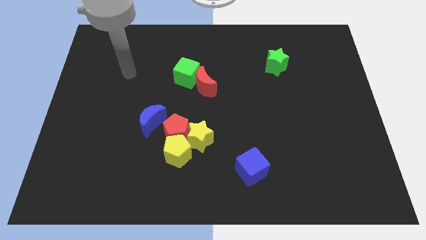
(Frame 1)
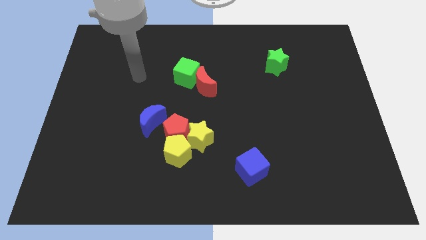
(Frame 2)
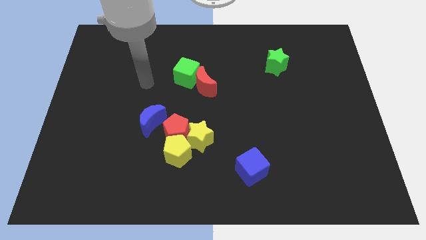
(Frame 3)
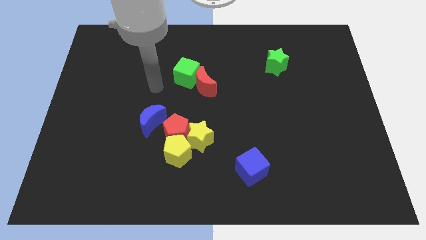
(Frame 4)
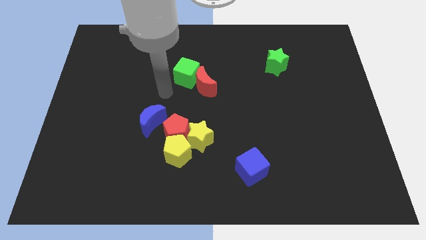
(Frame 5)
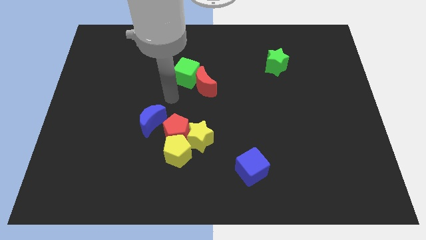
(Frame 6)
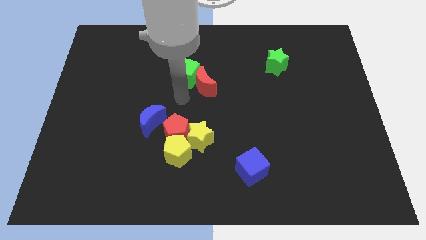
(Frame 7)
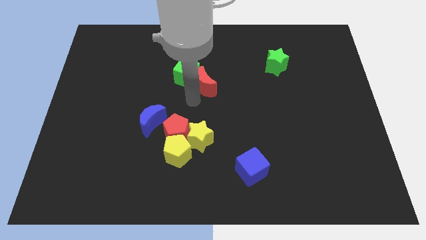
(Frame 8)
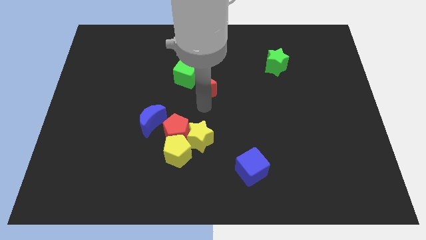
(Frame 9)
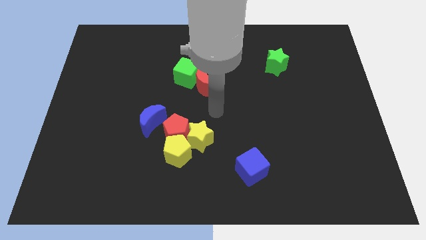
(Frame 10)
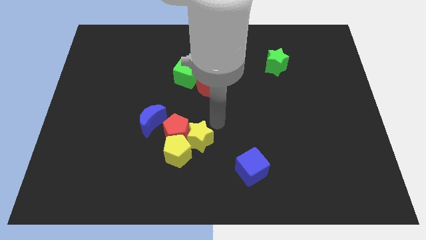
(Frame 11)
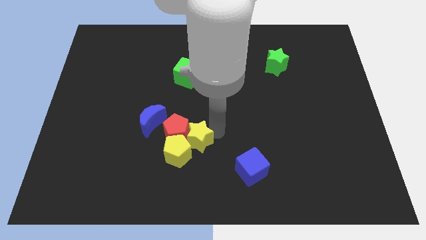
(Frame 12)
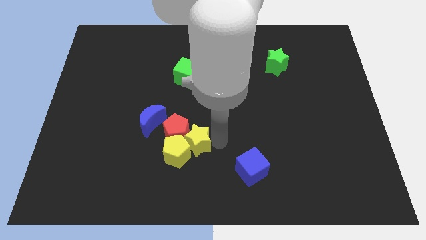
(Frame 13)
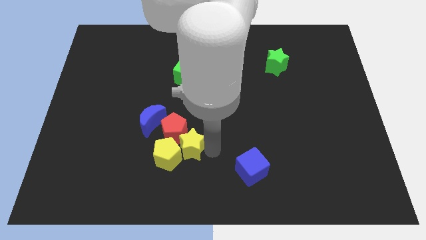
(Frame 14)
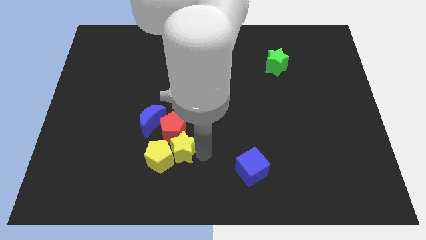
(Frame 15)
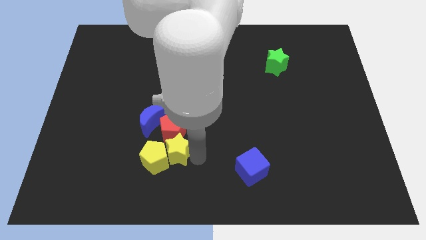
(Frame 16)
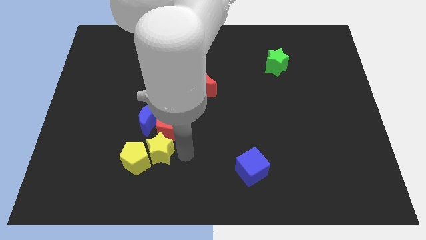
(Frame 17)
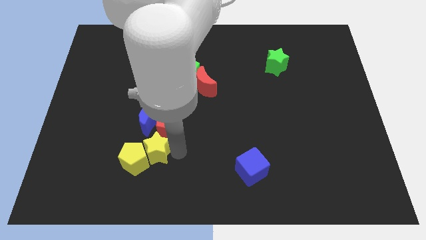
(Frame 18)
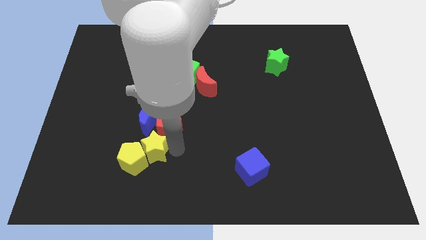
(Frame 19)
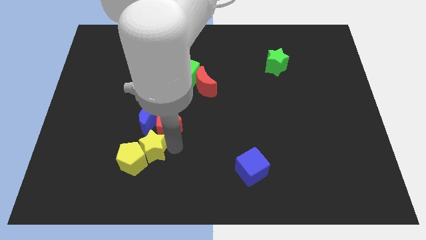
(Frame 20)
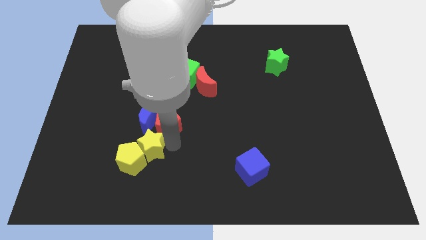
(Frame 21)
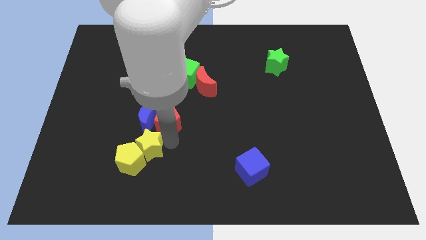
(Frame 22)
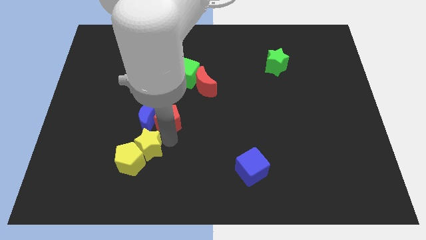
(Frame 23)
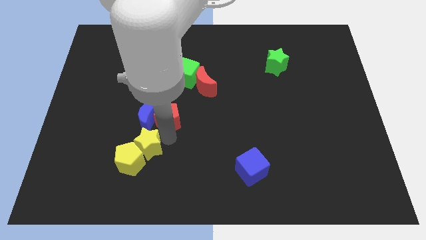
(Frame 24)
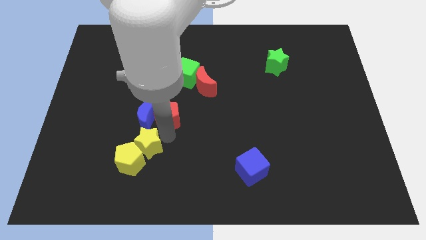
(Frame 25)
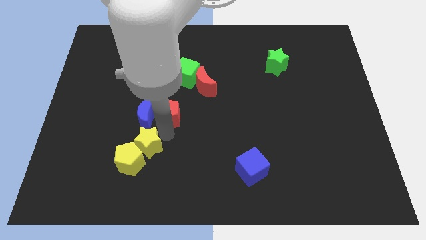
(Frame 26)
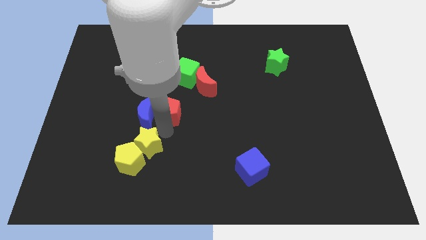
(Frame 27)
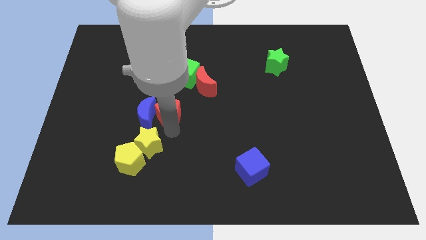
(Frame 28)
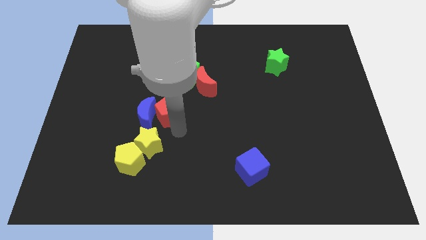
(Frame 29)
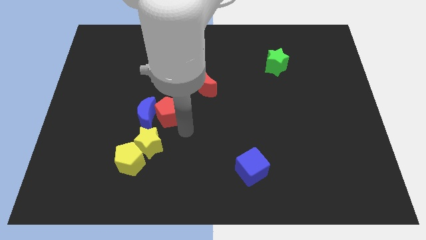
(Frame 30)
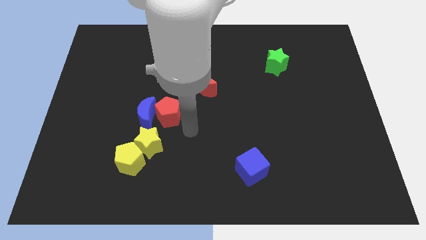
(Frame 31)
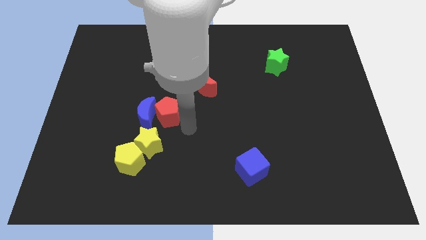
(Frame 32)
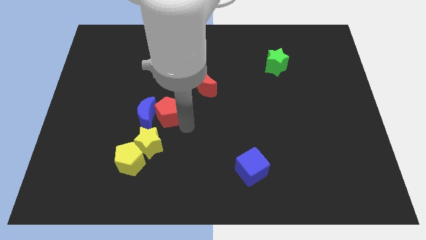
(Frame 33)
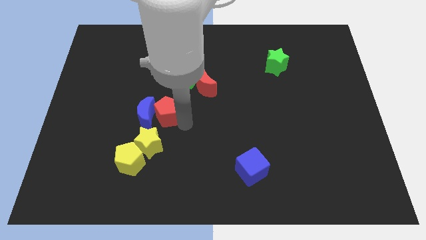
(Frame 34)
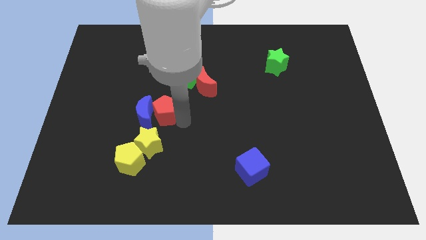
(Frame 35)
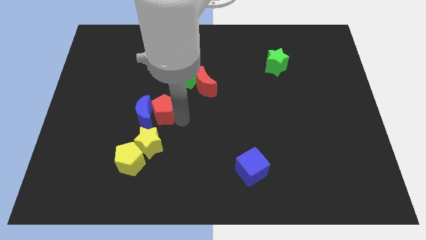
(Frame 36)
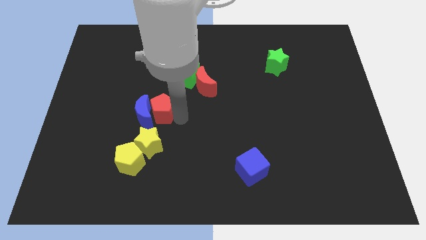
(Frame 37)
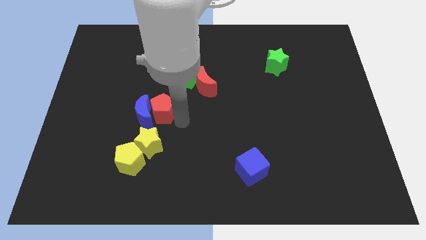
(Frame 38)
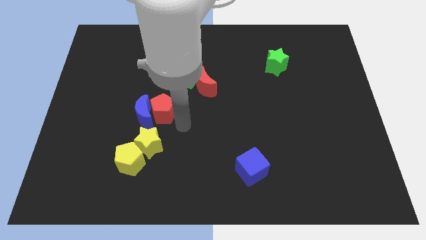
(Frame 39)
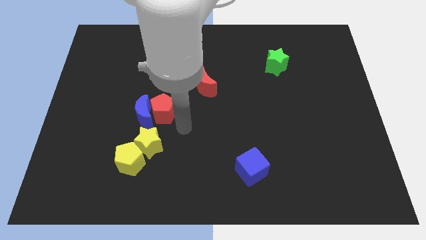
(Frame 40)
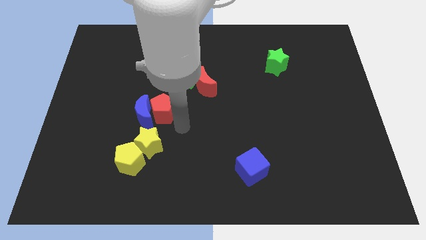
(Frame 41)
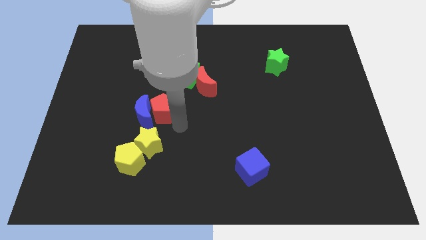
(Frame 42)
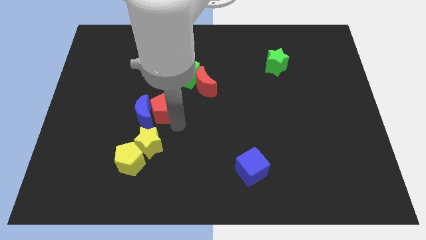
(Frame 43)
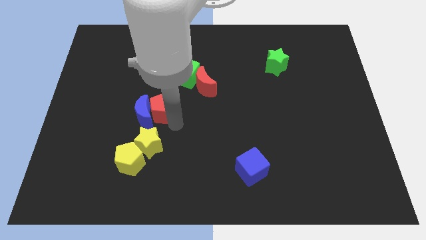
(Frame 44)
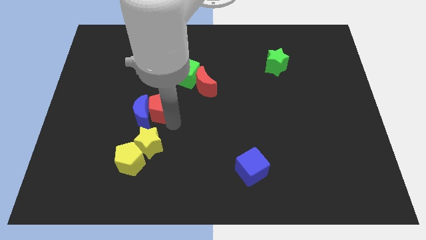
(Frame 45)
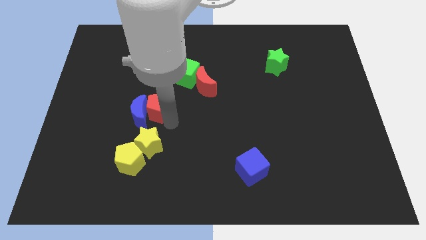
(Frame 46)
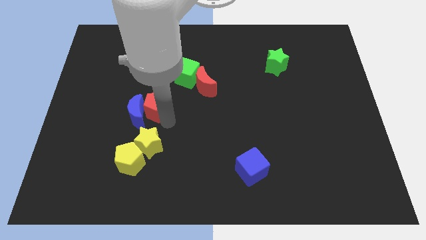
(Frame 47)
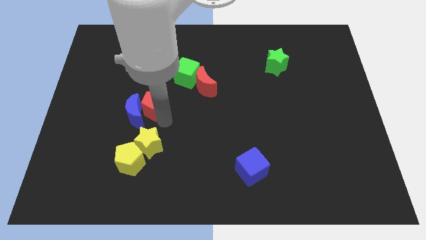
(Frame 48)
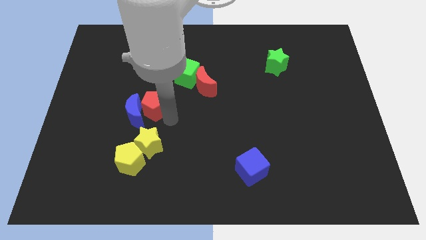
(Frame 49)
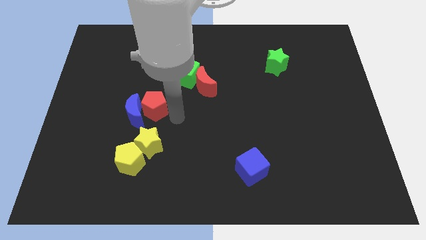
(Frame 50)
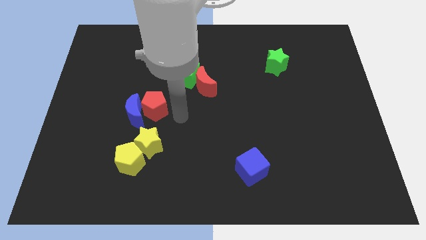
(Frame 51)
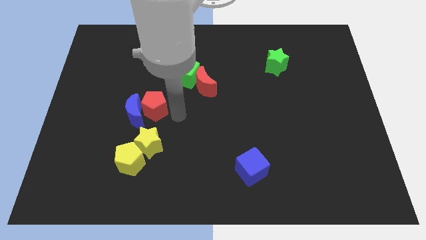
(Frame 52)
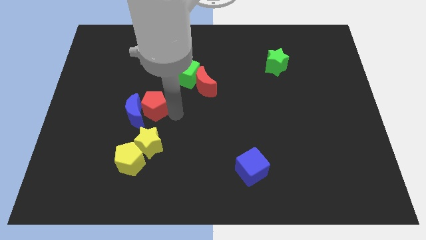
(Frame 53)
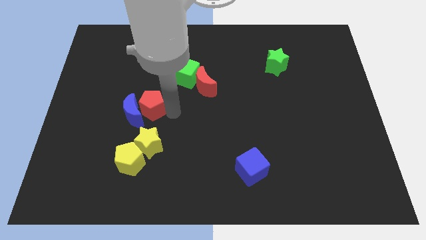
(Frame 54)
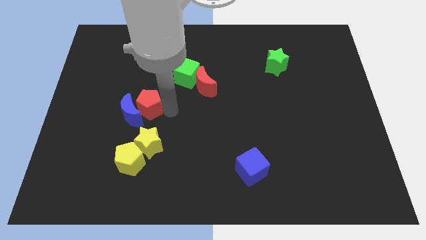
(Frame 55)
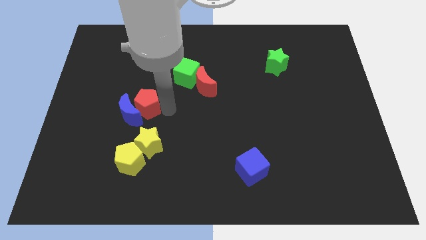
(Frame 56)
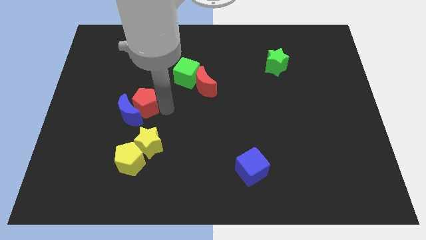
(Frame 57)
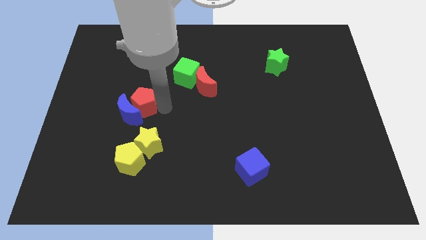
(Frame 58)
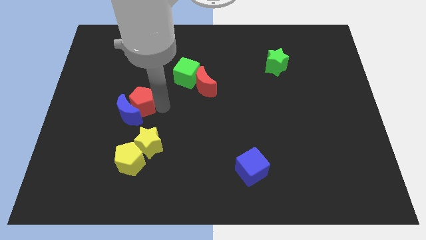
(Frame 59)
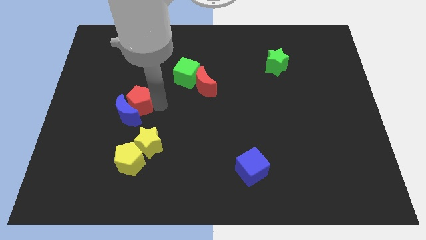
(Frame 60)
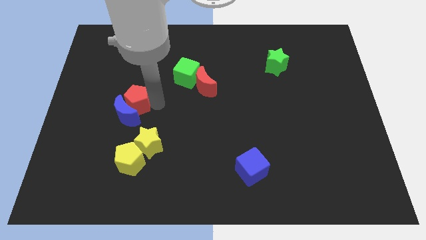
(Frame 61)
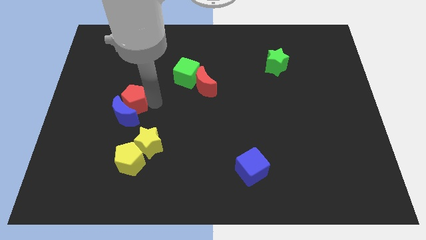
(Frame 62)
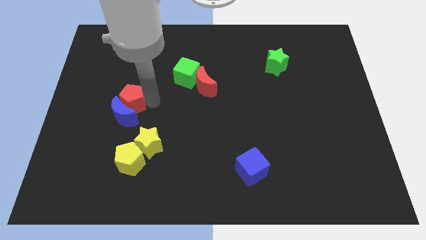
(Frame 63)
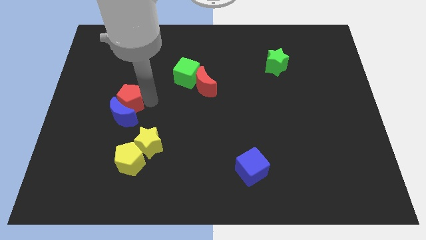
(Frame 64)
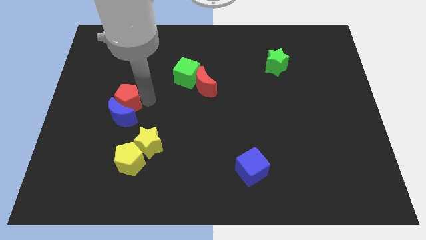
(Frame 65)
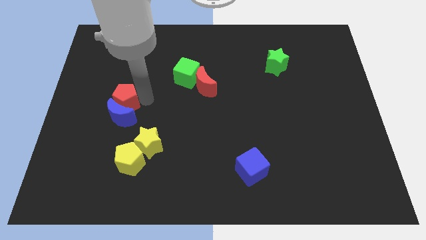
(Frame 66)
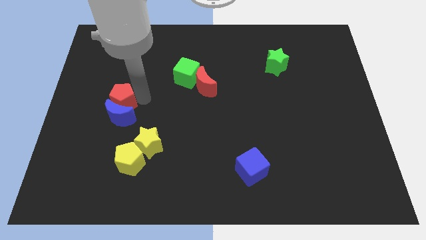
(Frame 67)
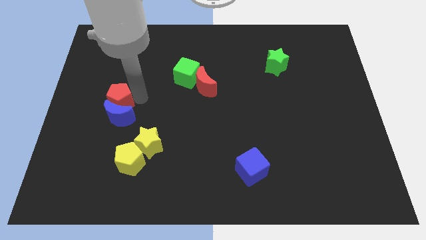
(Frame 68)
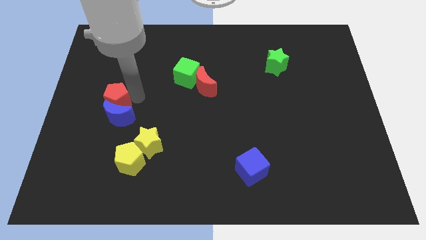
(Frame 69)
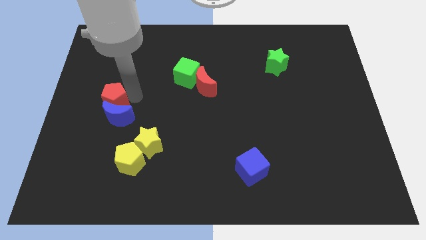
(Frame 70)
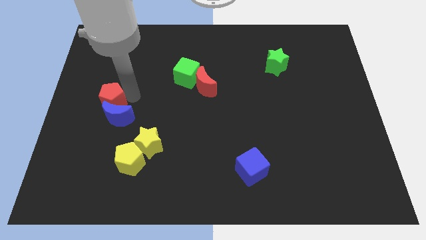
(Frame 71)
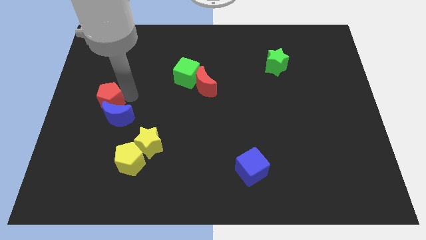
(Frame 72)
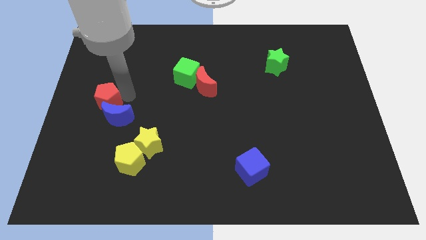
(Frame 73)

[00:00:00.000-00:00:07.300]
slide the red pentagon to the center left
